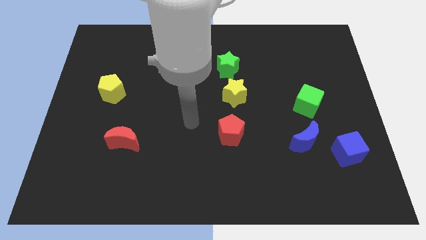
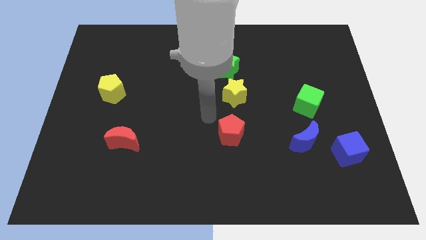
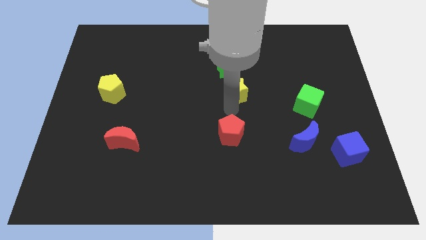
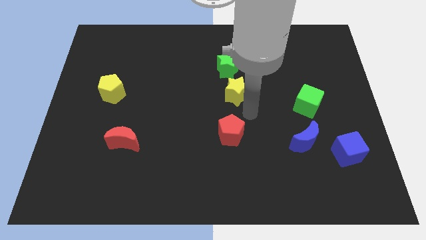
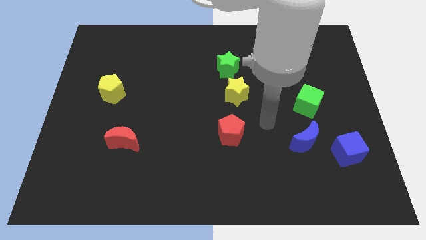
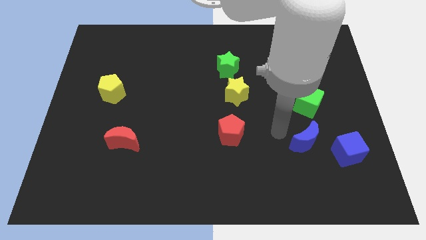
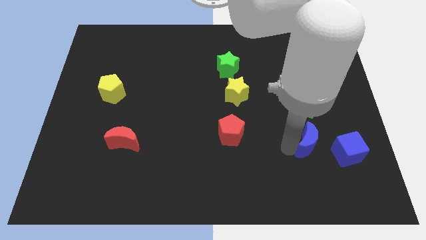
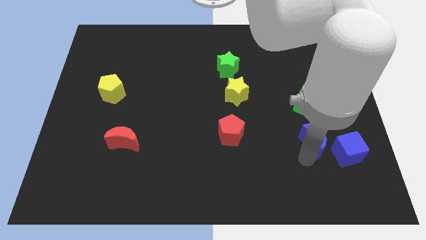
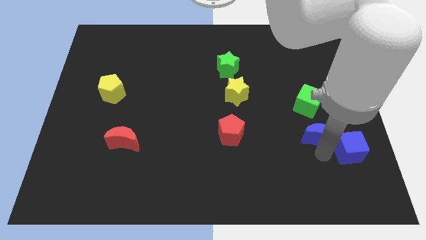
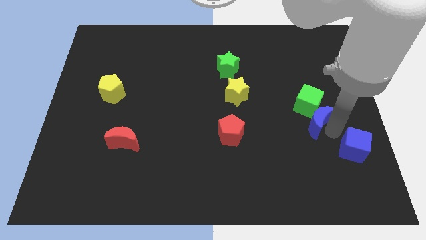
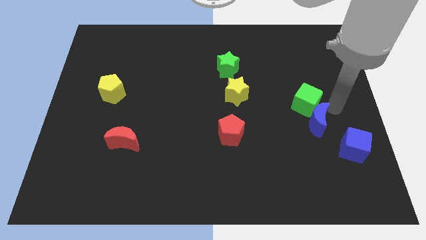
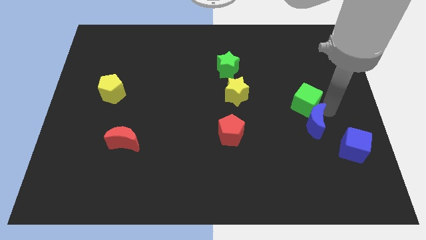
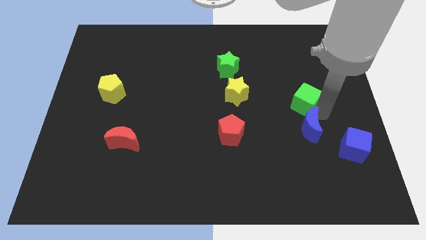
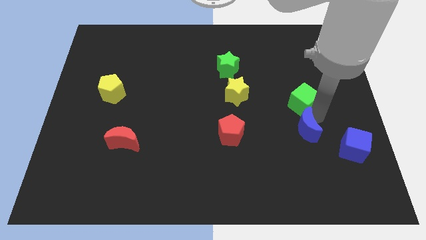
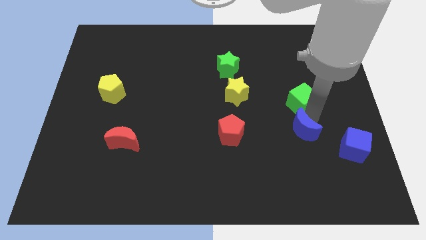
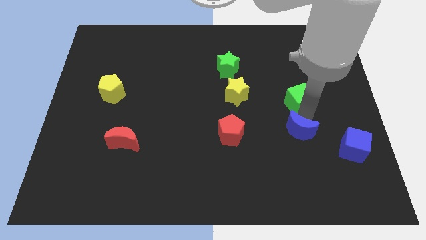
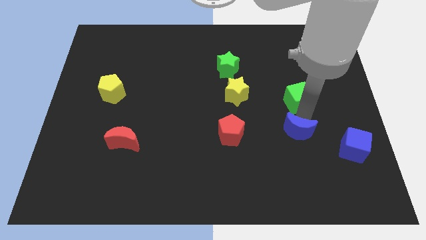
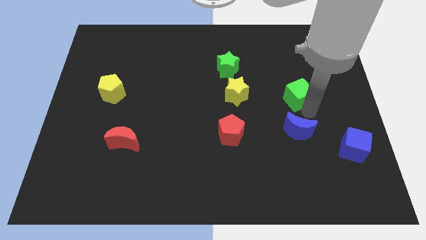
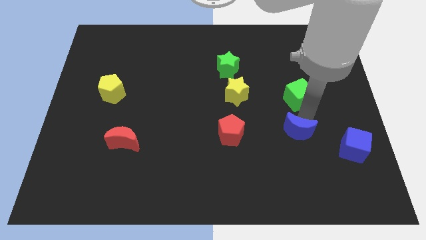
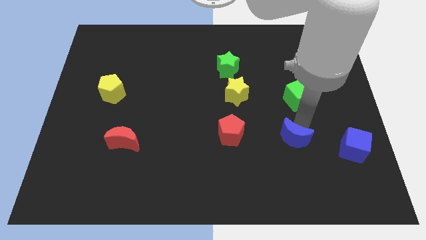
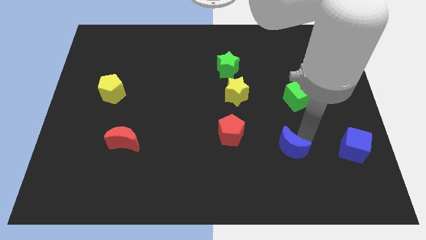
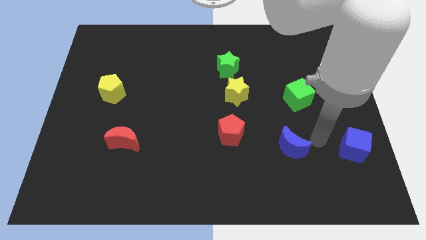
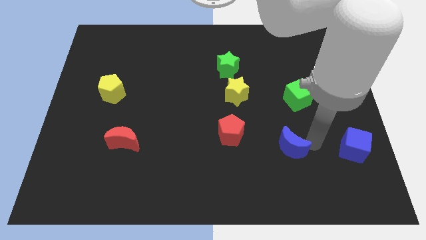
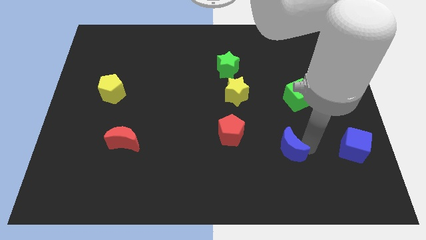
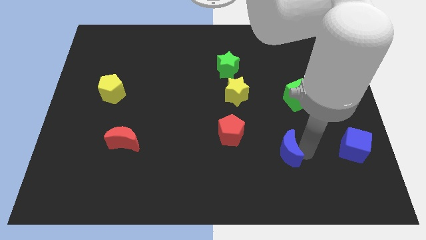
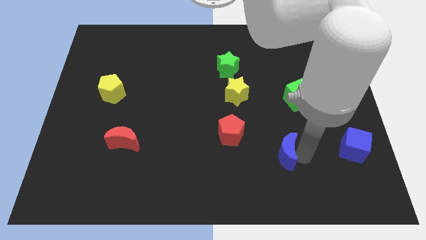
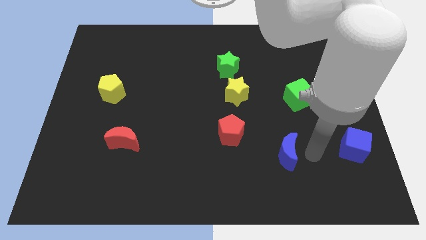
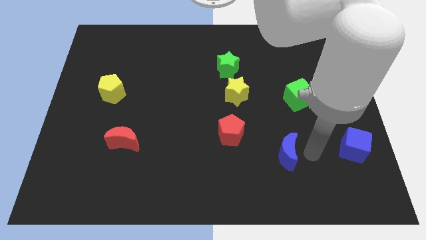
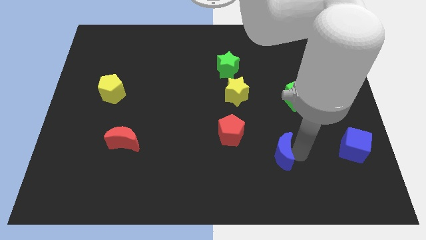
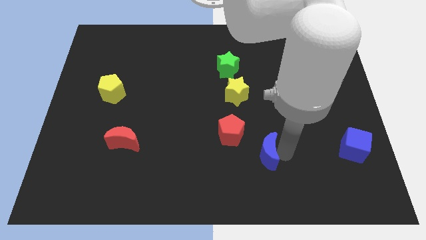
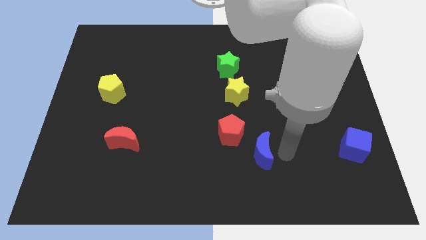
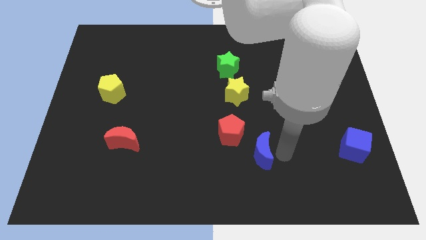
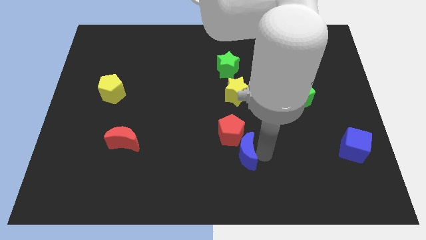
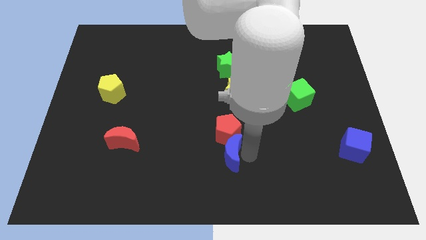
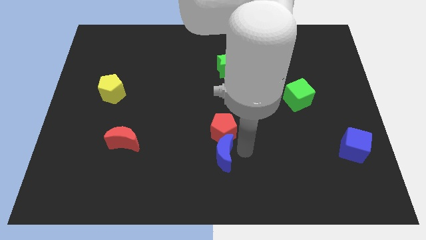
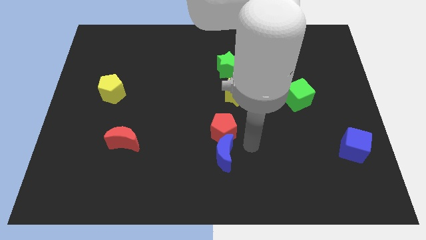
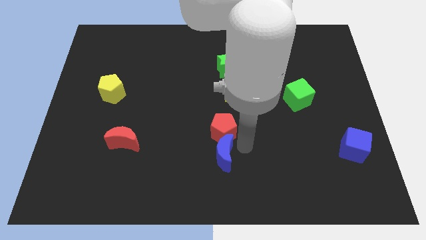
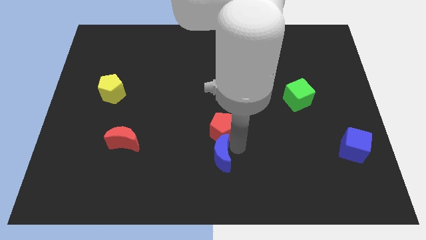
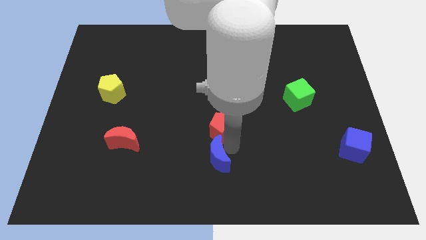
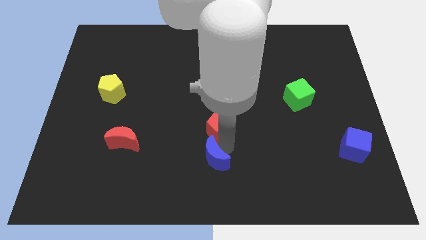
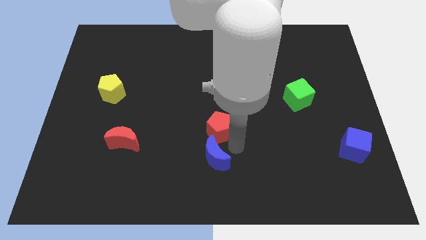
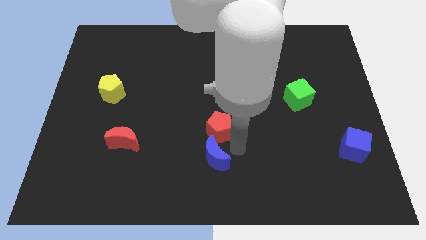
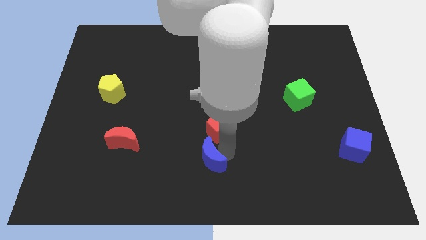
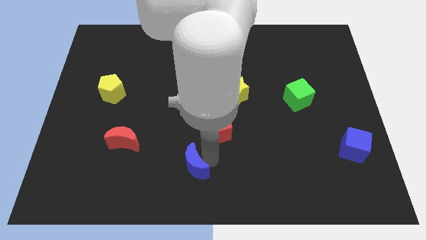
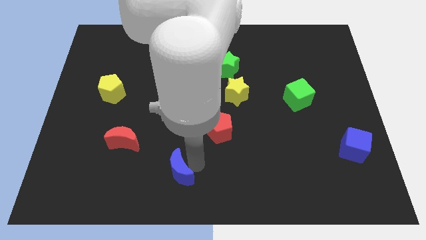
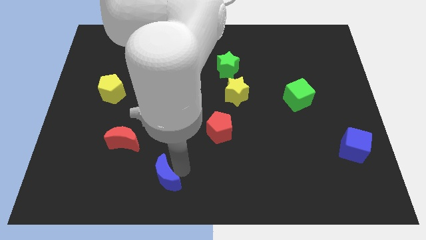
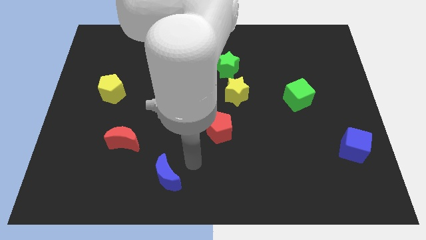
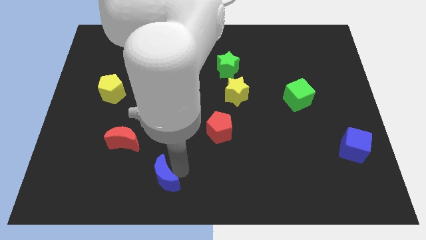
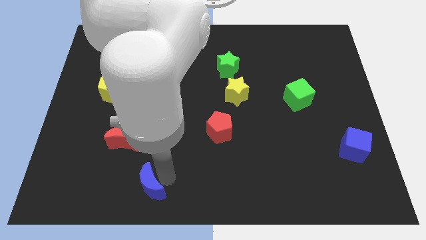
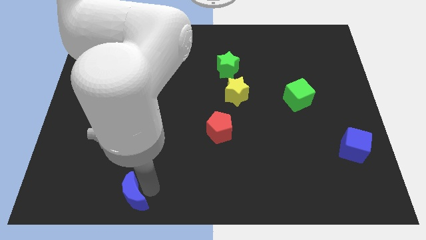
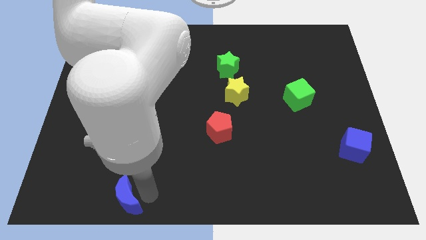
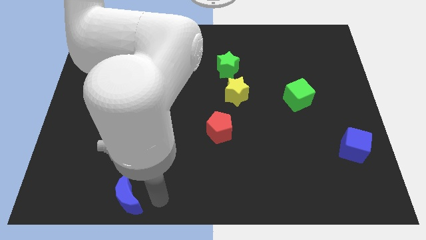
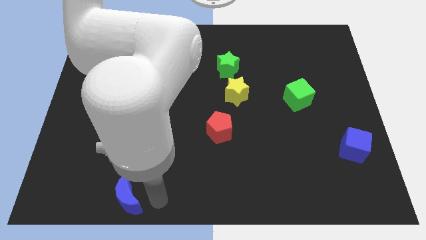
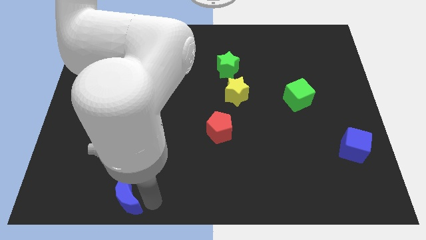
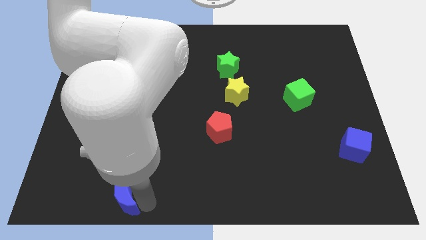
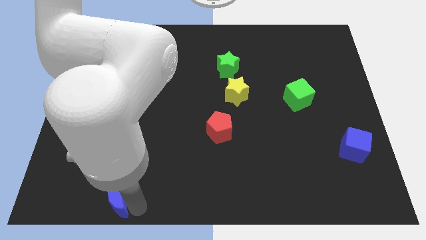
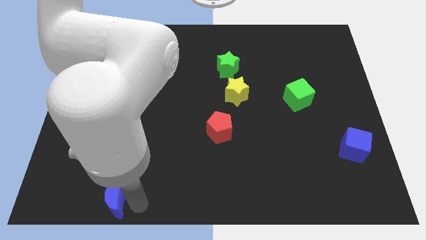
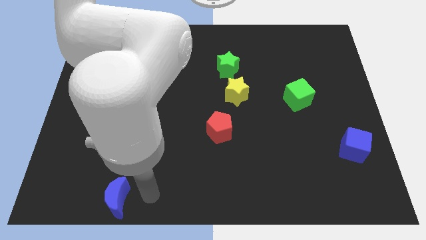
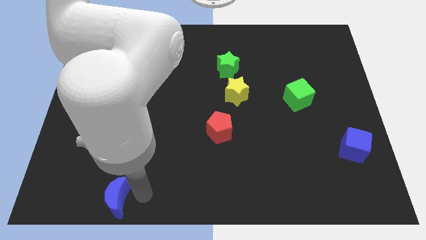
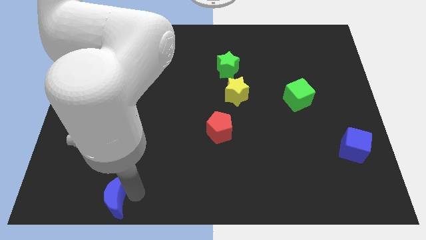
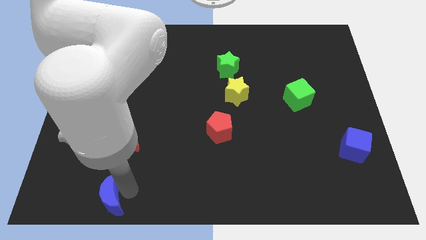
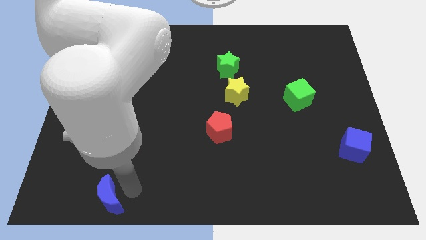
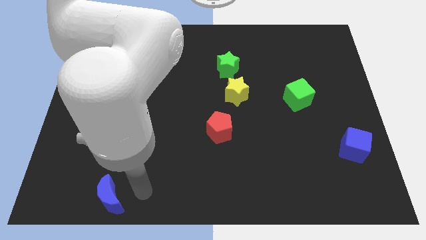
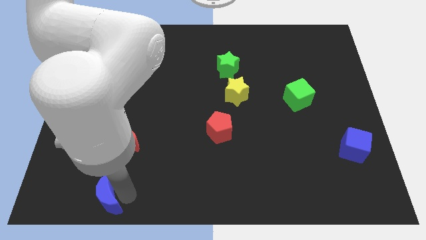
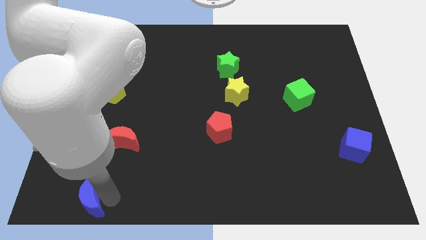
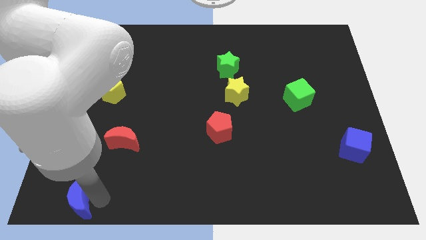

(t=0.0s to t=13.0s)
slide the blue moon to the bottom left corner
